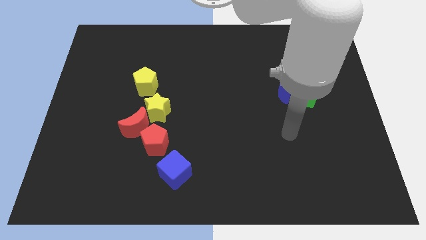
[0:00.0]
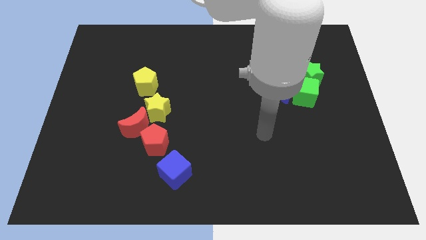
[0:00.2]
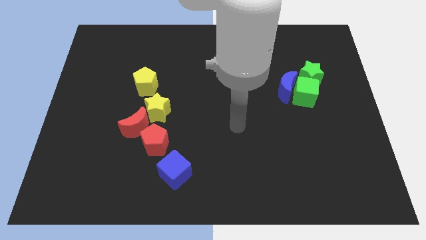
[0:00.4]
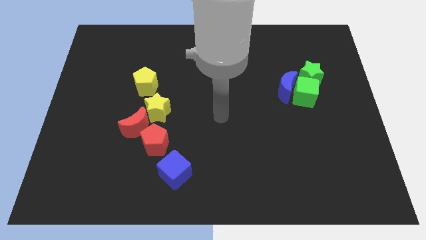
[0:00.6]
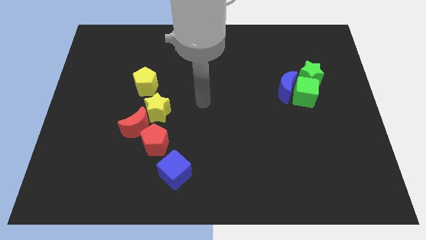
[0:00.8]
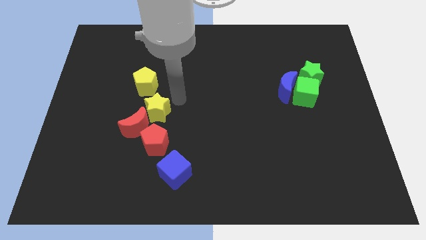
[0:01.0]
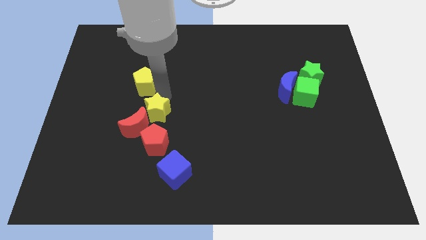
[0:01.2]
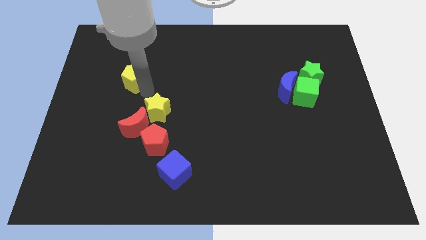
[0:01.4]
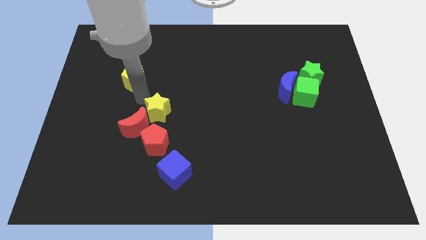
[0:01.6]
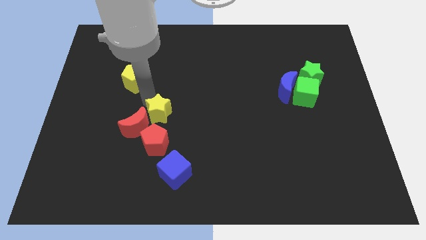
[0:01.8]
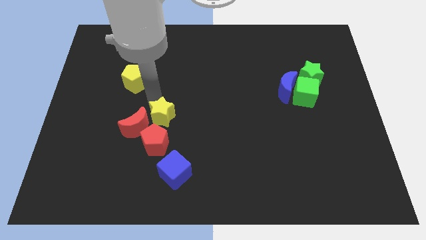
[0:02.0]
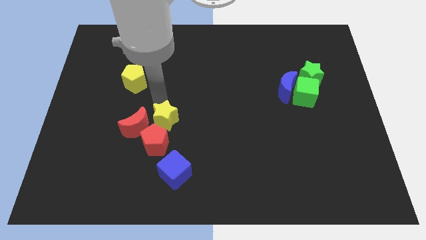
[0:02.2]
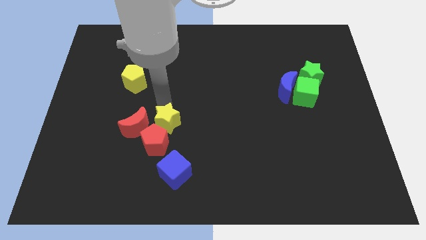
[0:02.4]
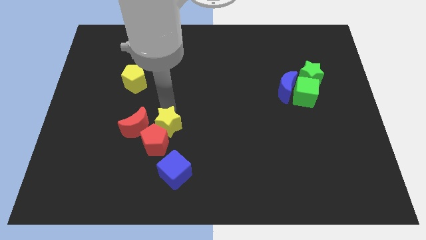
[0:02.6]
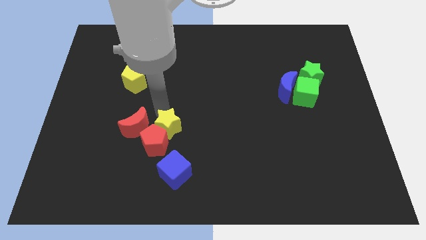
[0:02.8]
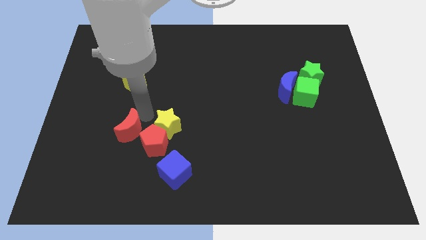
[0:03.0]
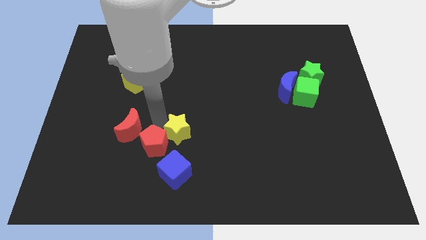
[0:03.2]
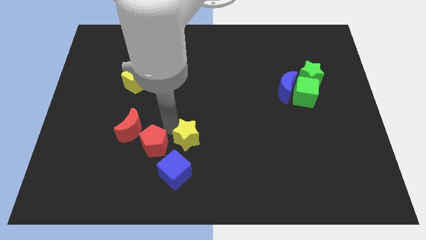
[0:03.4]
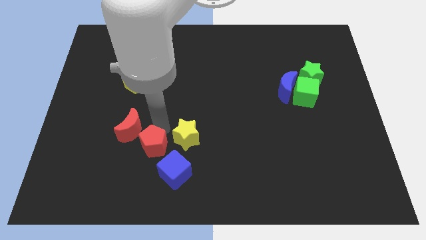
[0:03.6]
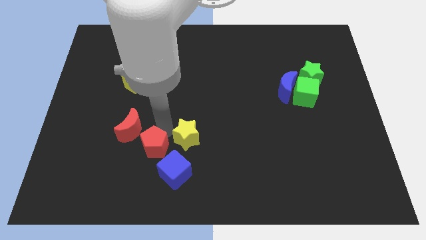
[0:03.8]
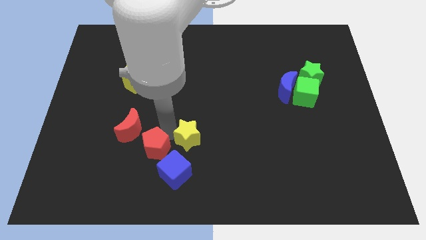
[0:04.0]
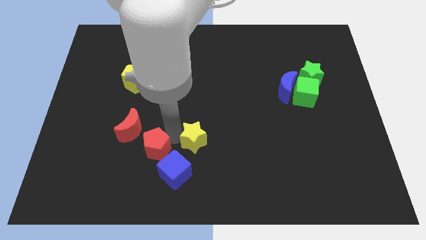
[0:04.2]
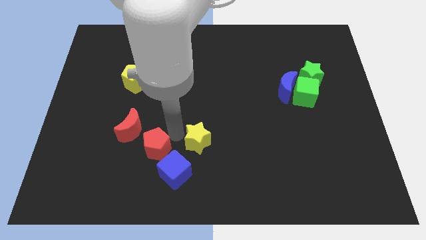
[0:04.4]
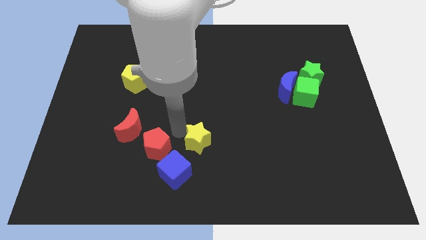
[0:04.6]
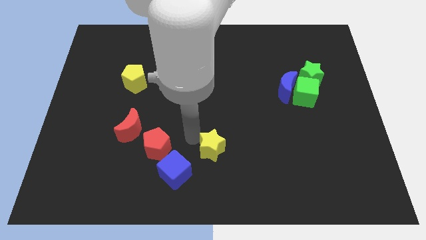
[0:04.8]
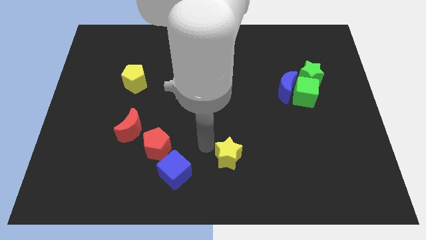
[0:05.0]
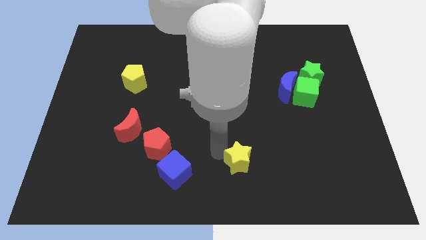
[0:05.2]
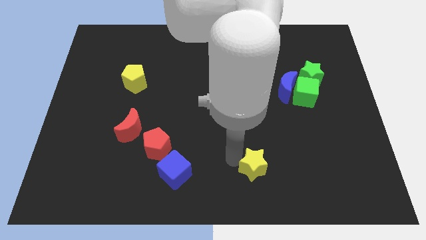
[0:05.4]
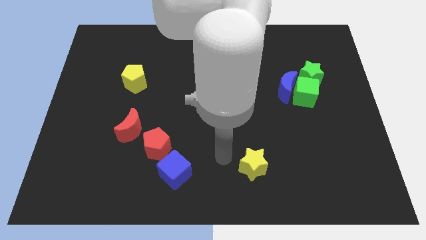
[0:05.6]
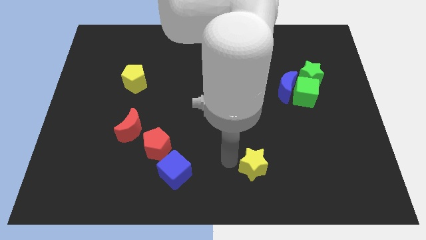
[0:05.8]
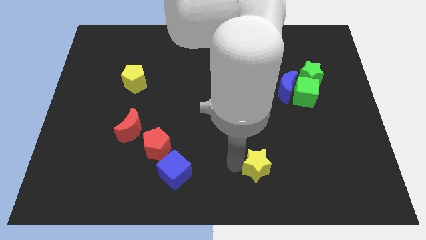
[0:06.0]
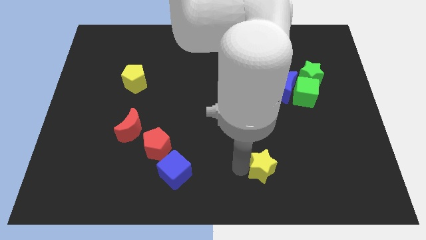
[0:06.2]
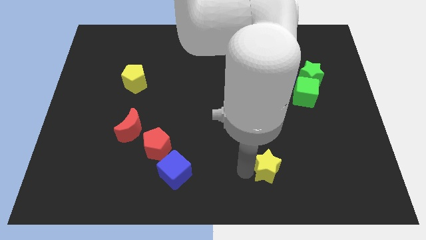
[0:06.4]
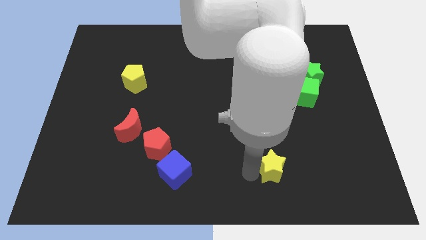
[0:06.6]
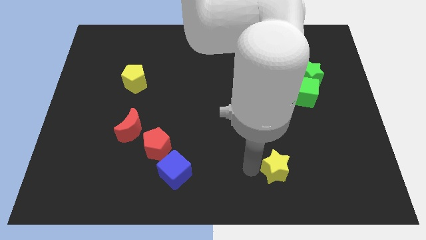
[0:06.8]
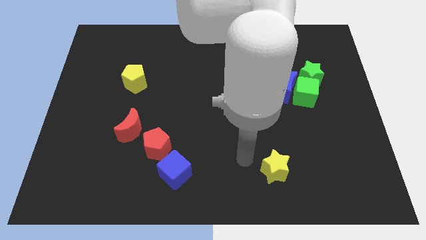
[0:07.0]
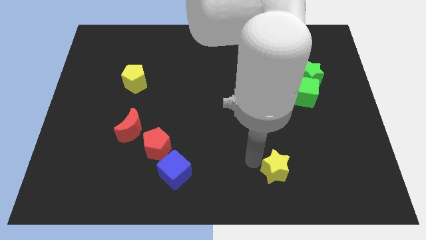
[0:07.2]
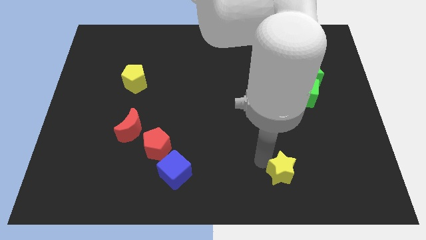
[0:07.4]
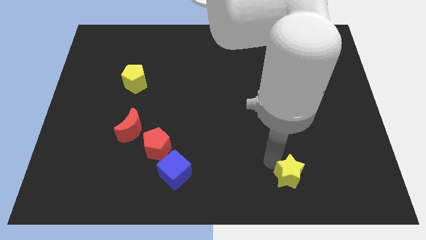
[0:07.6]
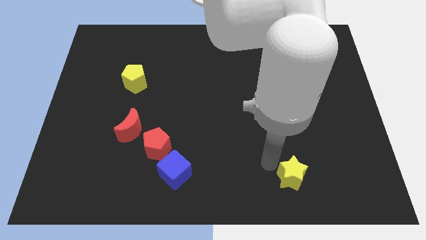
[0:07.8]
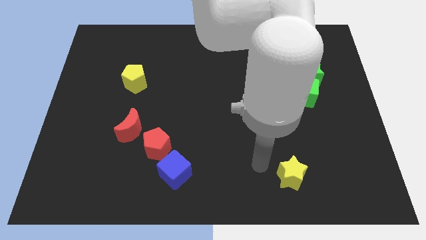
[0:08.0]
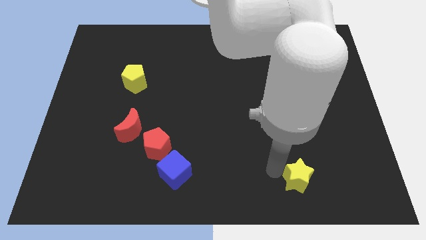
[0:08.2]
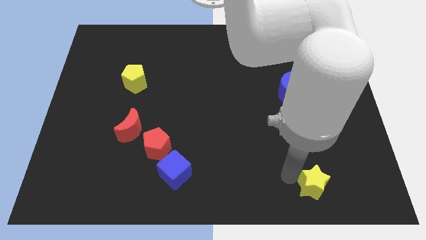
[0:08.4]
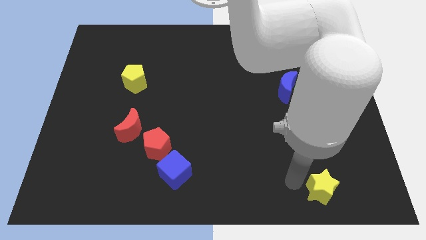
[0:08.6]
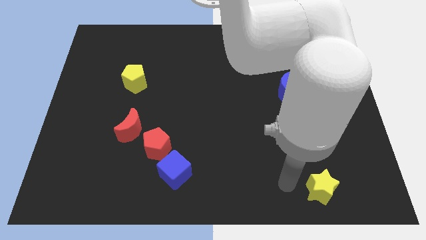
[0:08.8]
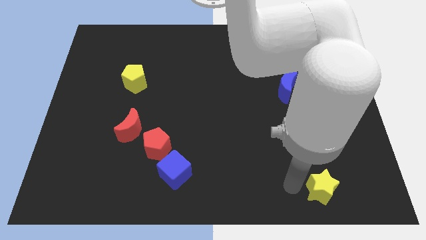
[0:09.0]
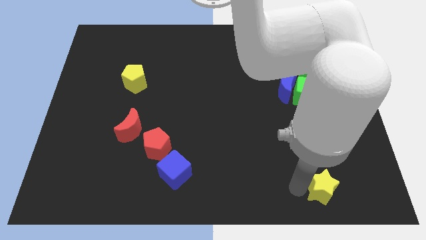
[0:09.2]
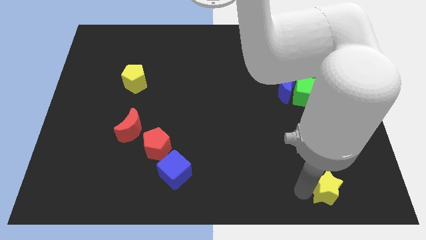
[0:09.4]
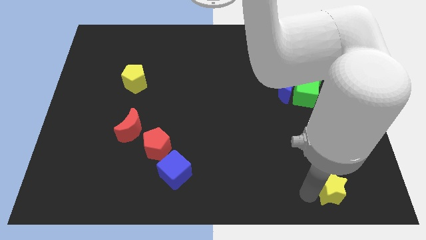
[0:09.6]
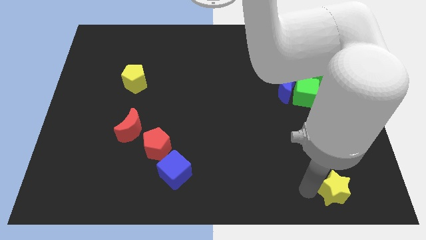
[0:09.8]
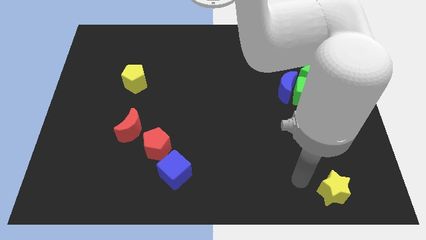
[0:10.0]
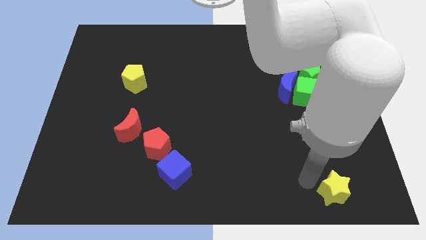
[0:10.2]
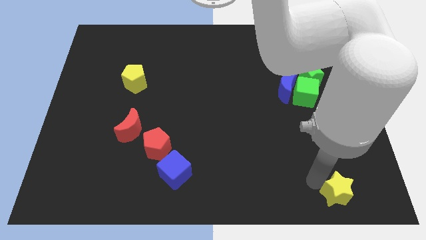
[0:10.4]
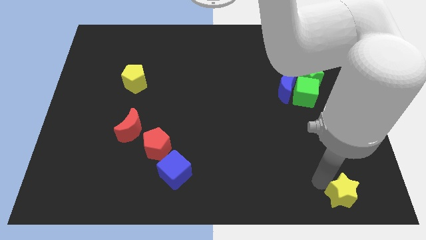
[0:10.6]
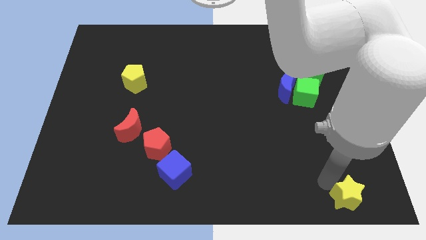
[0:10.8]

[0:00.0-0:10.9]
put the yellow star to the lower right corner

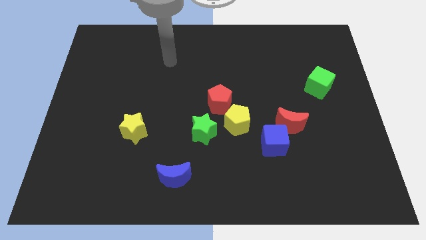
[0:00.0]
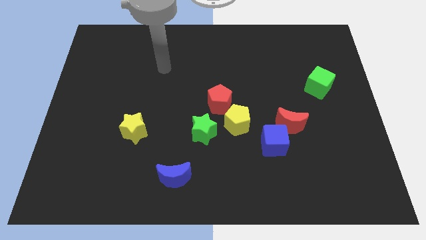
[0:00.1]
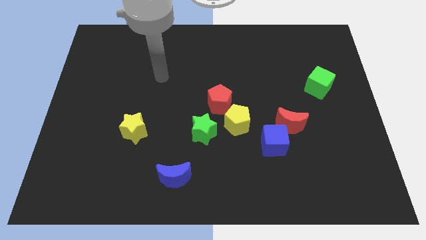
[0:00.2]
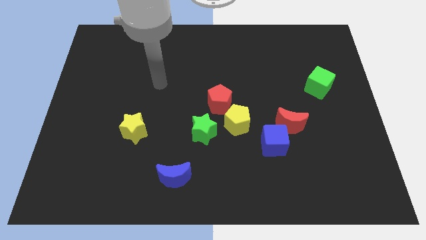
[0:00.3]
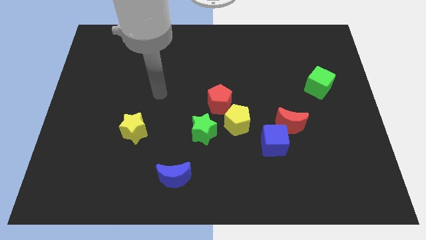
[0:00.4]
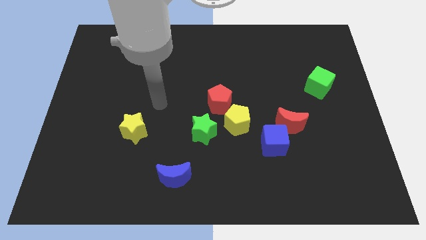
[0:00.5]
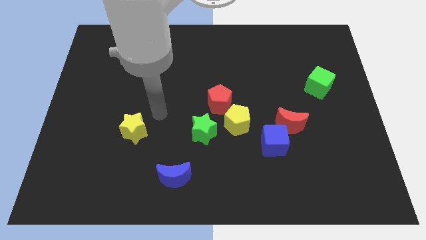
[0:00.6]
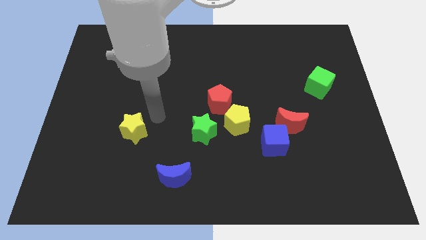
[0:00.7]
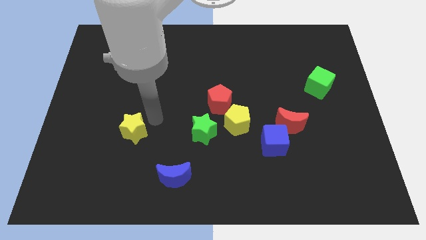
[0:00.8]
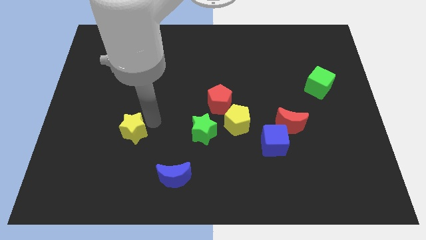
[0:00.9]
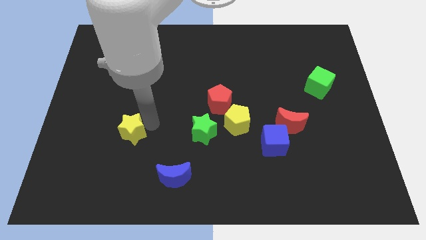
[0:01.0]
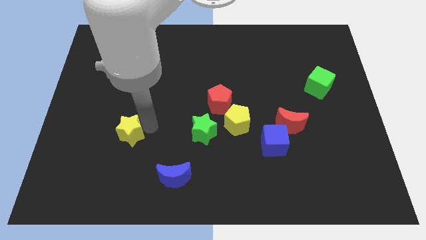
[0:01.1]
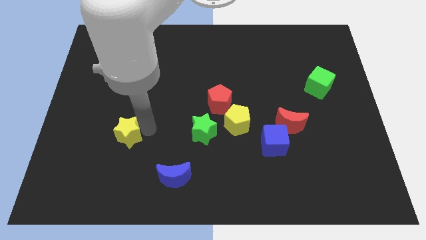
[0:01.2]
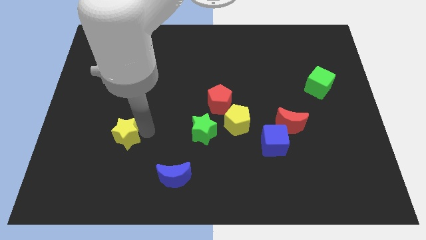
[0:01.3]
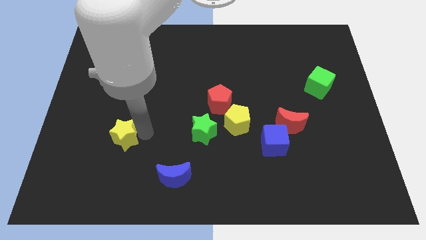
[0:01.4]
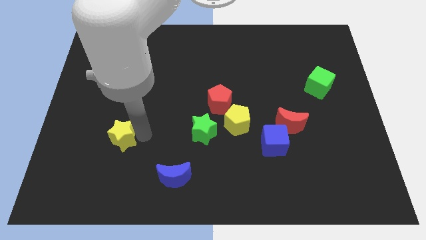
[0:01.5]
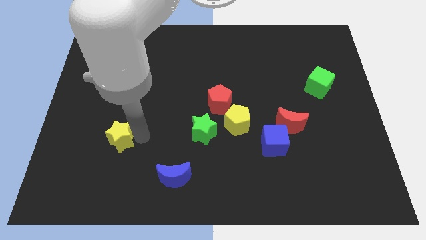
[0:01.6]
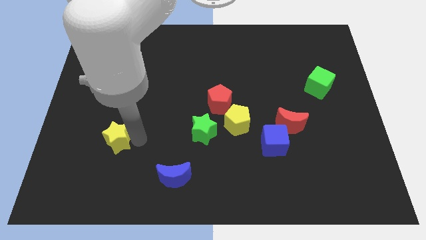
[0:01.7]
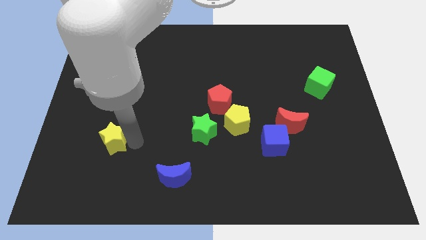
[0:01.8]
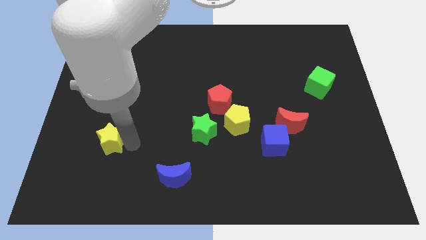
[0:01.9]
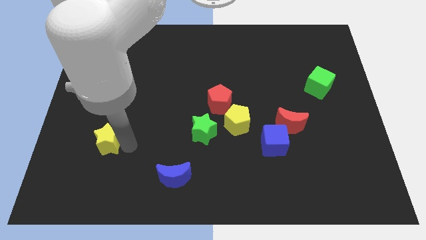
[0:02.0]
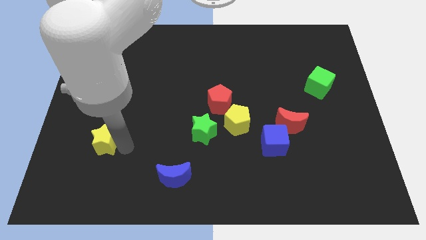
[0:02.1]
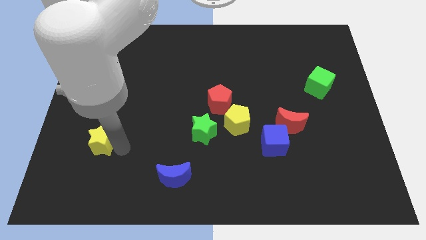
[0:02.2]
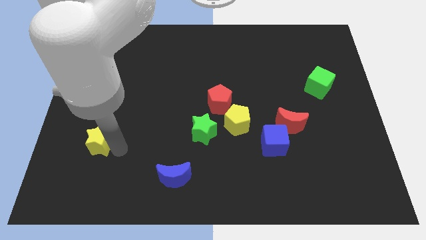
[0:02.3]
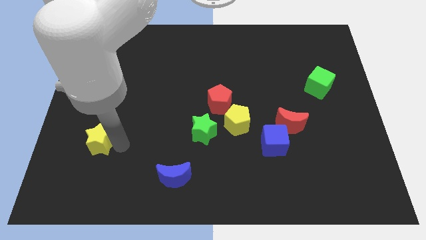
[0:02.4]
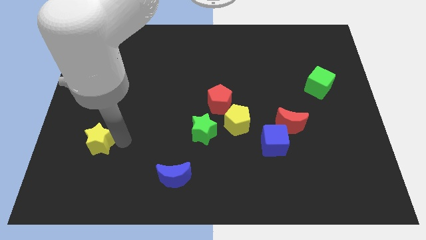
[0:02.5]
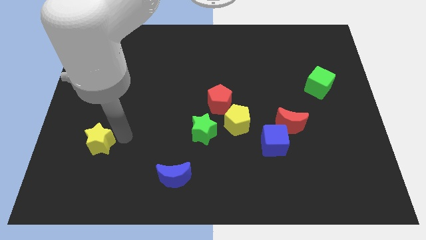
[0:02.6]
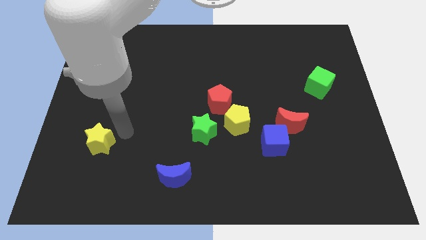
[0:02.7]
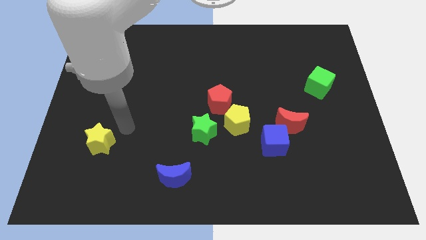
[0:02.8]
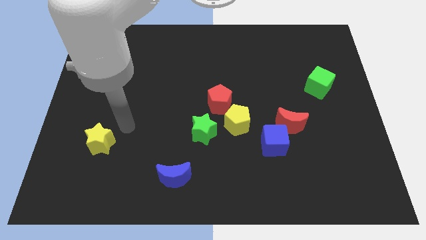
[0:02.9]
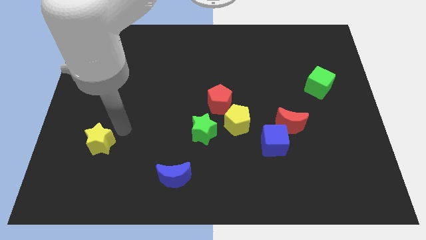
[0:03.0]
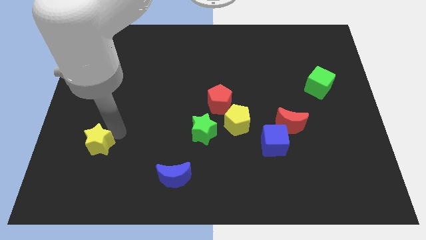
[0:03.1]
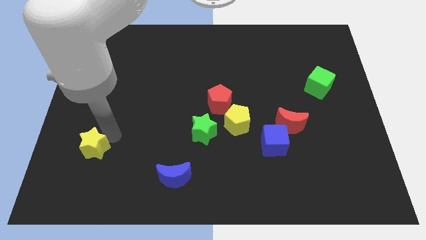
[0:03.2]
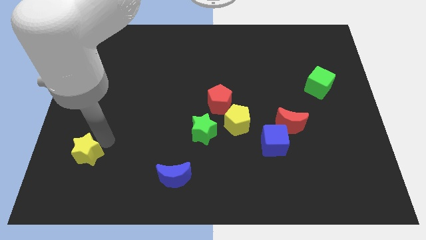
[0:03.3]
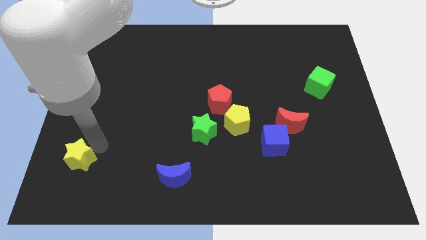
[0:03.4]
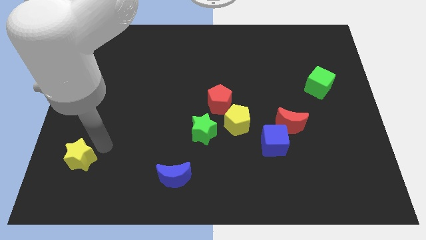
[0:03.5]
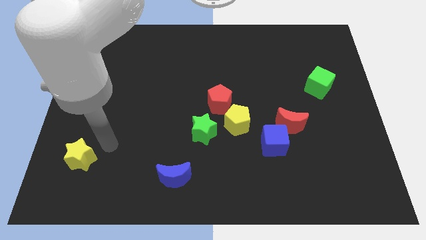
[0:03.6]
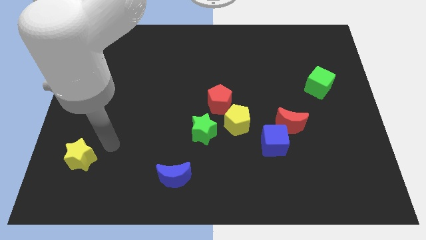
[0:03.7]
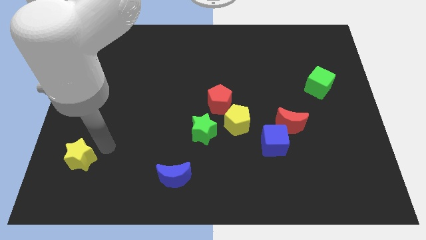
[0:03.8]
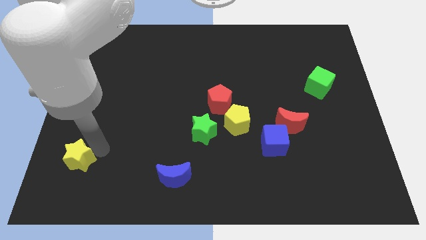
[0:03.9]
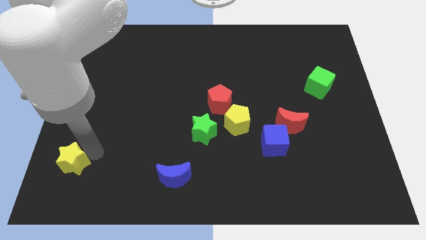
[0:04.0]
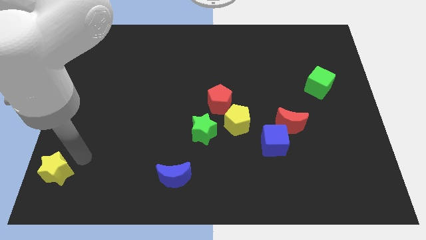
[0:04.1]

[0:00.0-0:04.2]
slide the yellow star to the lower left corner
